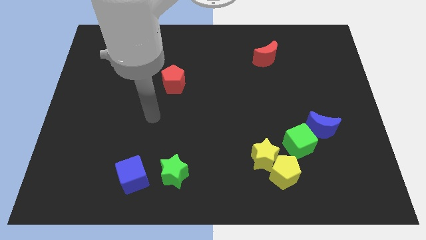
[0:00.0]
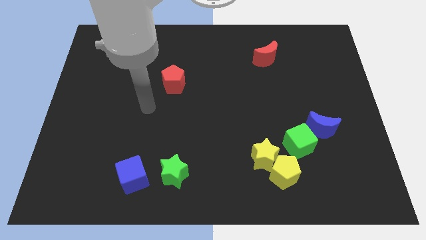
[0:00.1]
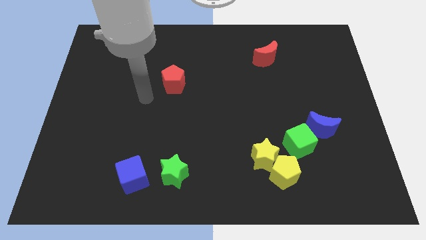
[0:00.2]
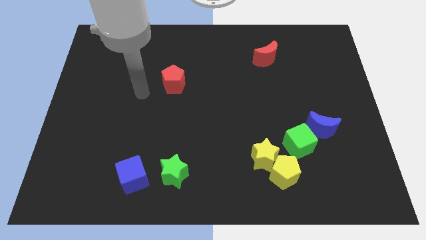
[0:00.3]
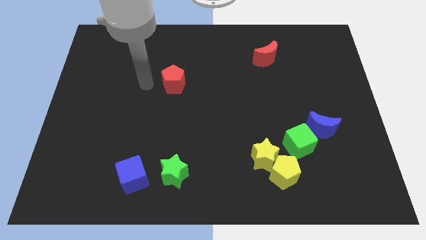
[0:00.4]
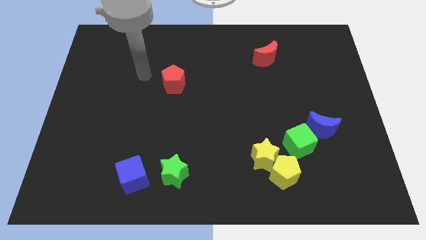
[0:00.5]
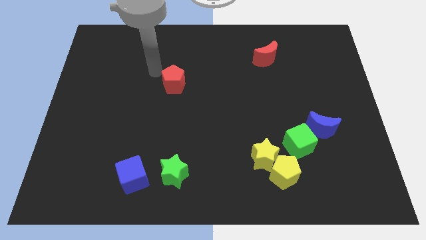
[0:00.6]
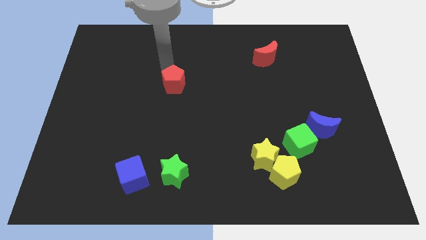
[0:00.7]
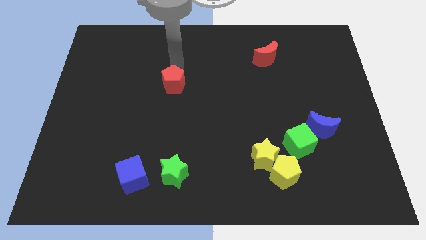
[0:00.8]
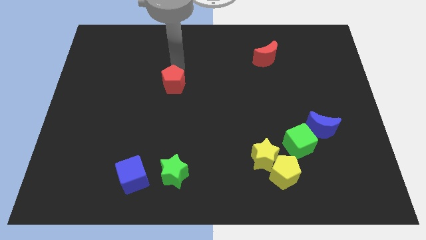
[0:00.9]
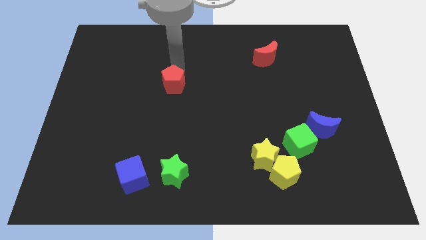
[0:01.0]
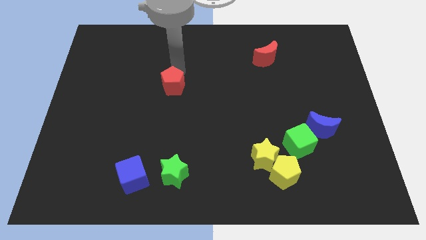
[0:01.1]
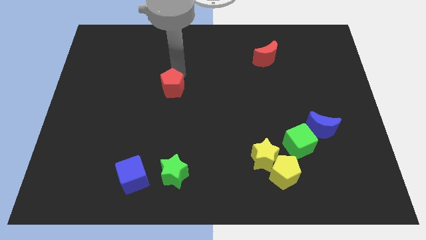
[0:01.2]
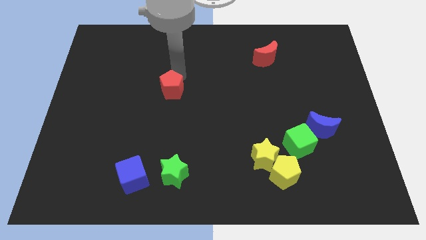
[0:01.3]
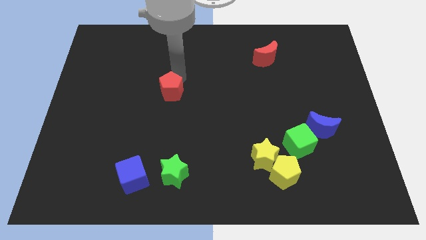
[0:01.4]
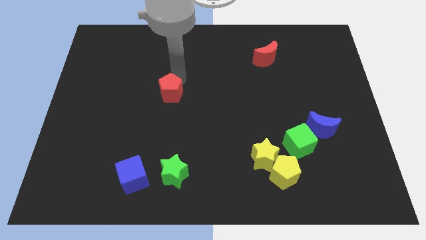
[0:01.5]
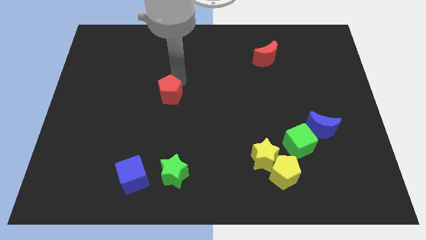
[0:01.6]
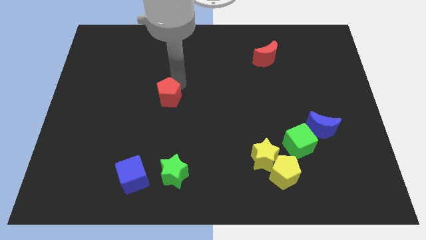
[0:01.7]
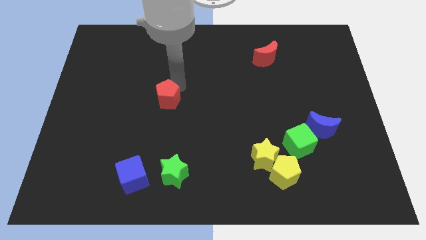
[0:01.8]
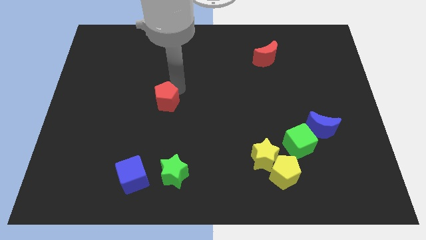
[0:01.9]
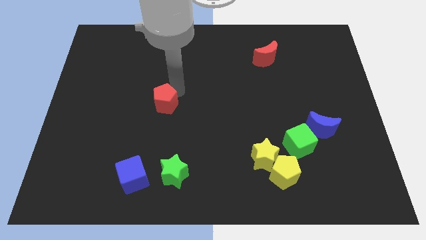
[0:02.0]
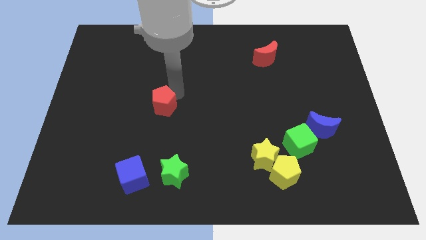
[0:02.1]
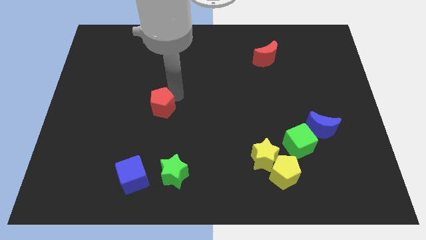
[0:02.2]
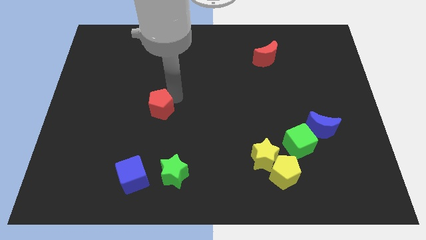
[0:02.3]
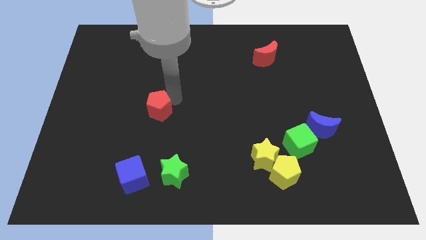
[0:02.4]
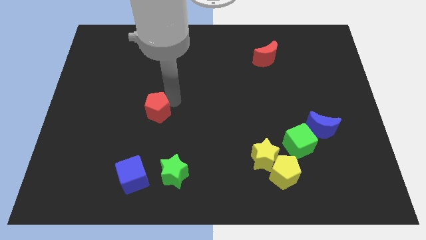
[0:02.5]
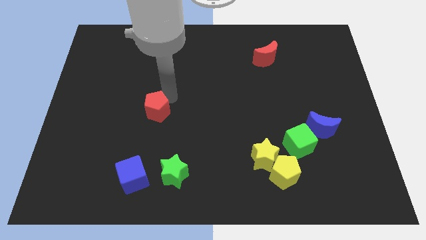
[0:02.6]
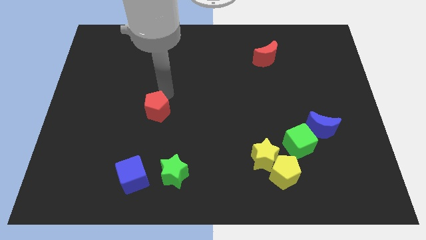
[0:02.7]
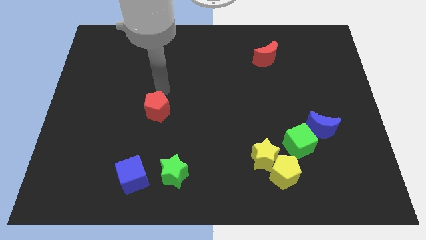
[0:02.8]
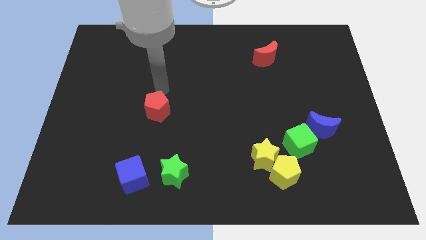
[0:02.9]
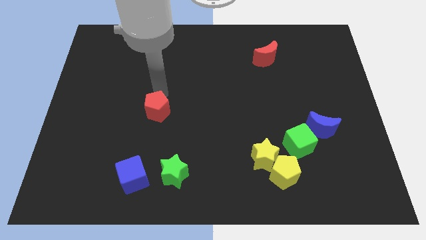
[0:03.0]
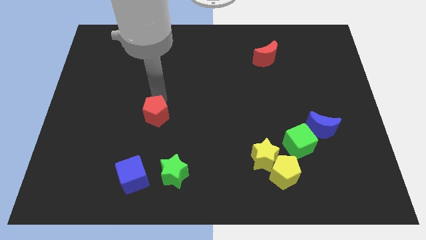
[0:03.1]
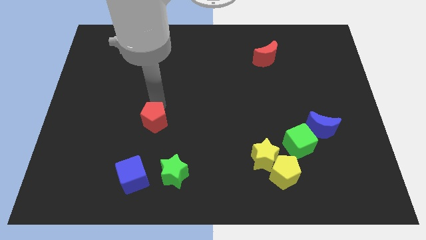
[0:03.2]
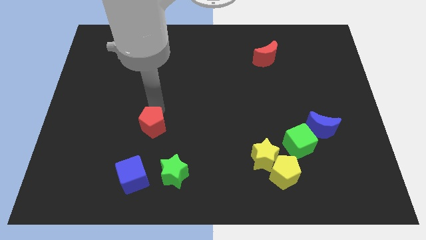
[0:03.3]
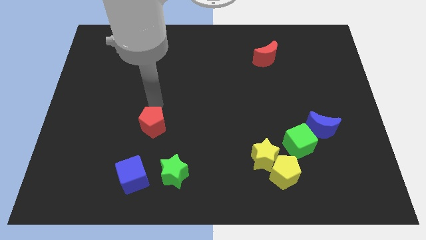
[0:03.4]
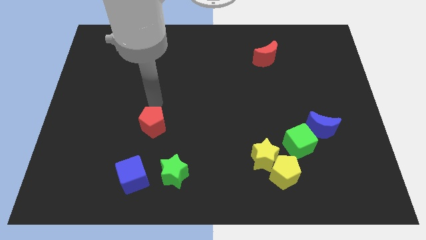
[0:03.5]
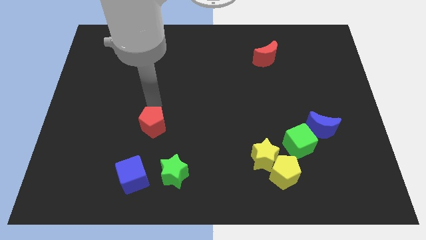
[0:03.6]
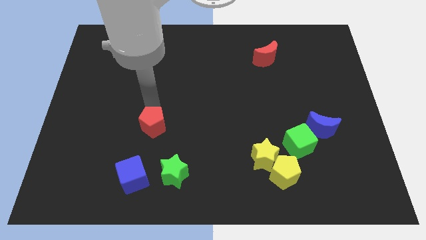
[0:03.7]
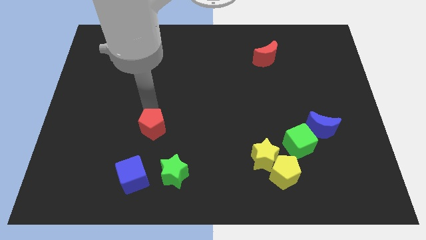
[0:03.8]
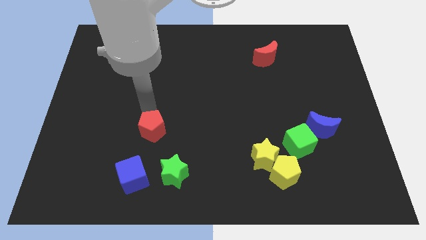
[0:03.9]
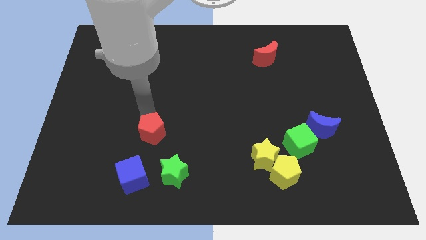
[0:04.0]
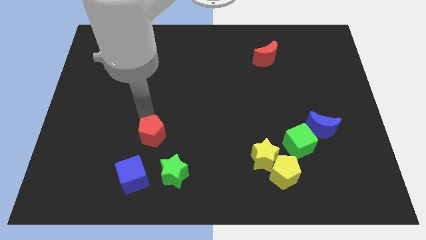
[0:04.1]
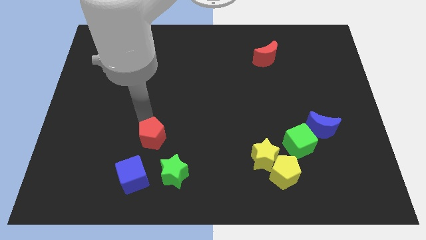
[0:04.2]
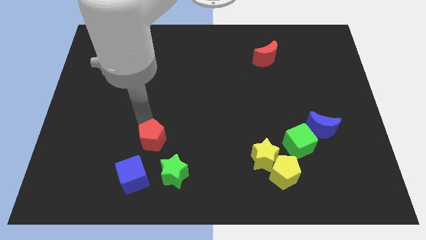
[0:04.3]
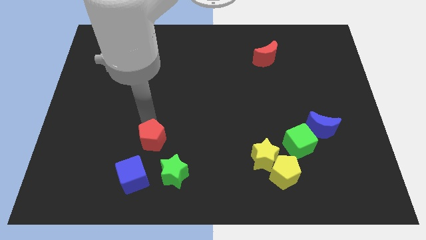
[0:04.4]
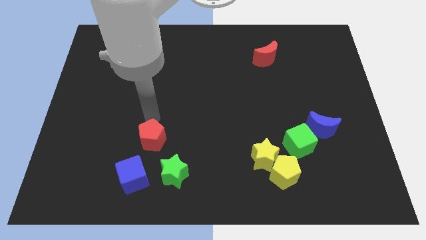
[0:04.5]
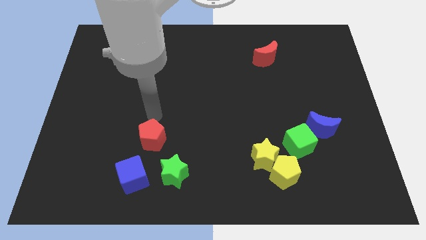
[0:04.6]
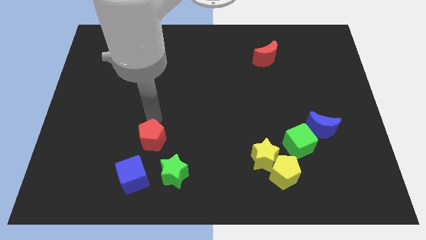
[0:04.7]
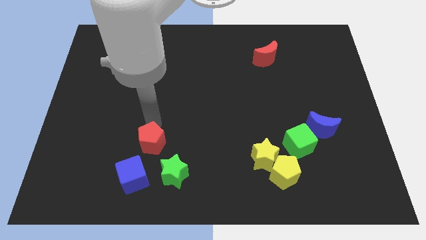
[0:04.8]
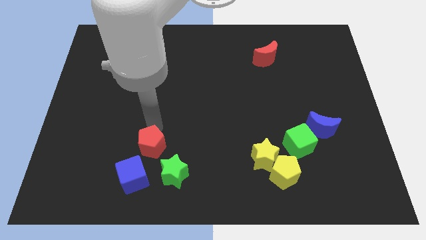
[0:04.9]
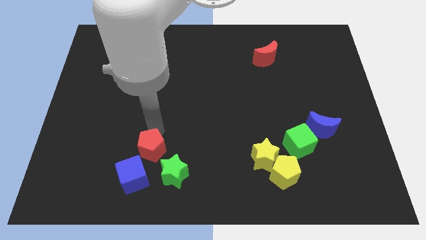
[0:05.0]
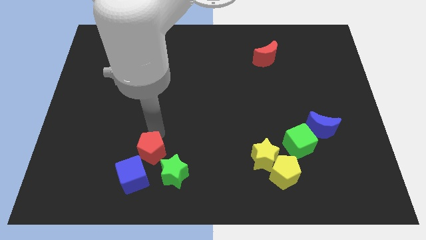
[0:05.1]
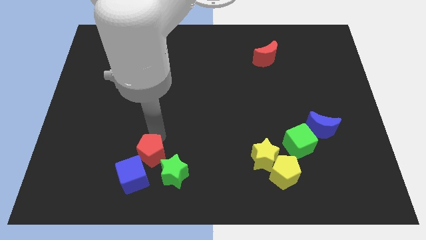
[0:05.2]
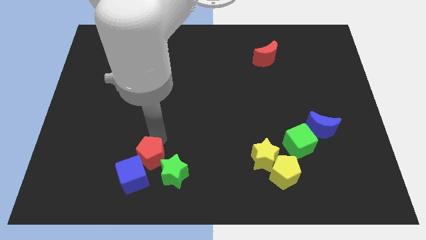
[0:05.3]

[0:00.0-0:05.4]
put the red pentagon next to the blue cube

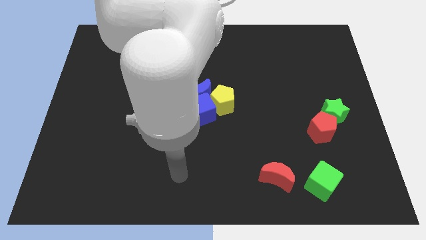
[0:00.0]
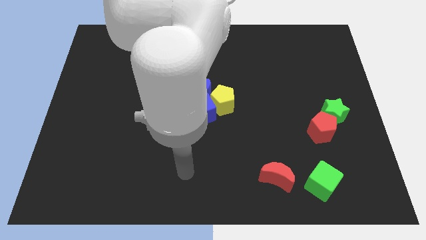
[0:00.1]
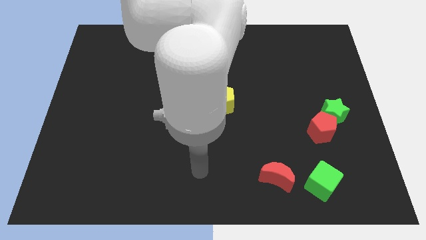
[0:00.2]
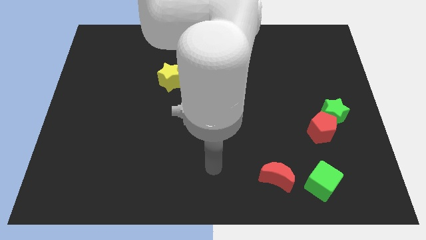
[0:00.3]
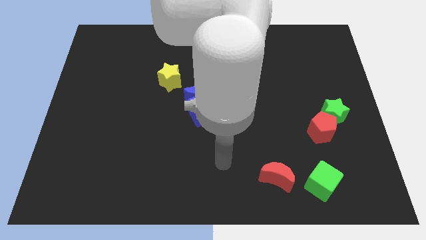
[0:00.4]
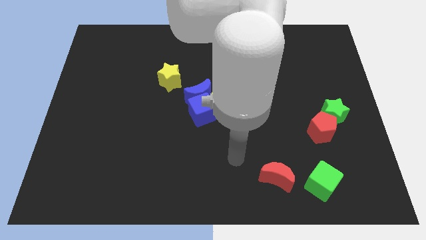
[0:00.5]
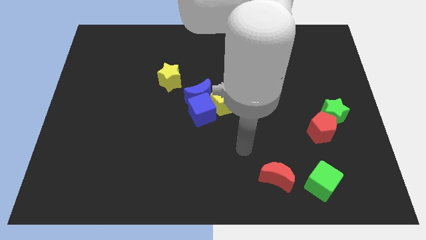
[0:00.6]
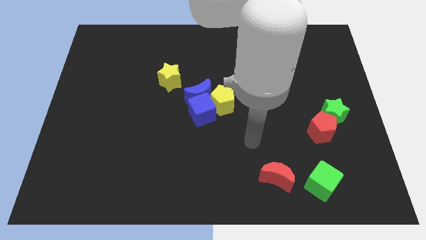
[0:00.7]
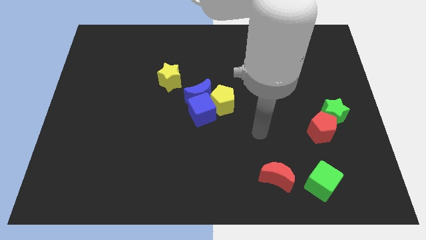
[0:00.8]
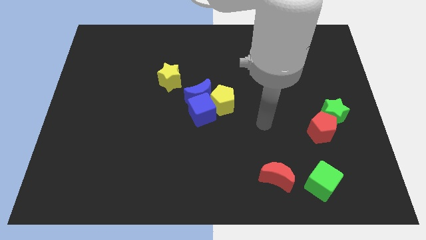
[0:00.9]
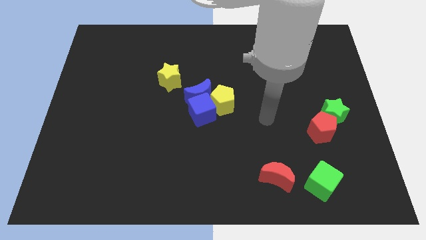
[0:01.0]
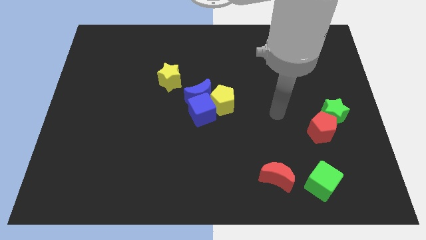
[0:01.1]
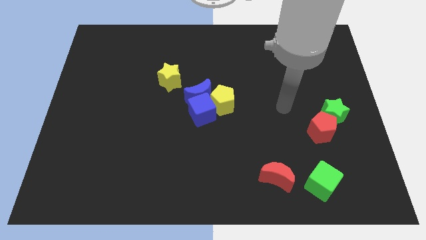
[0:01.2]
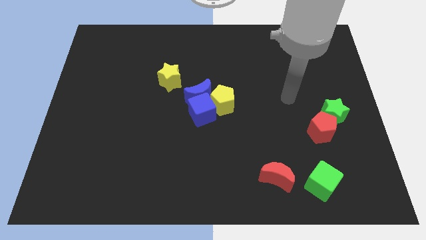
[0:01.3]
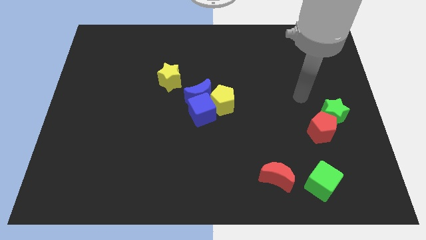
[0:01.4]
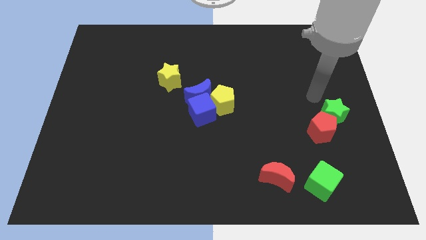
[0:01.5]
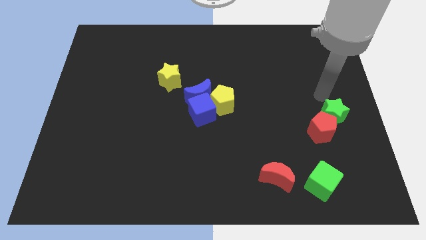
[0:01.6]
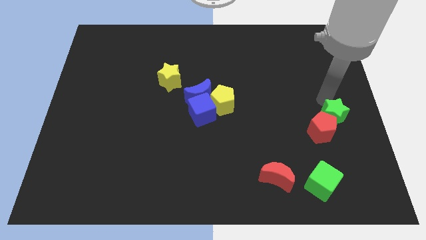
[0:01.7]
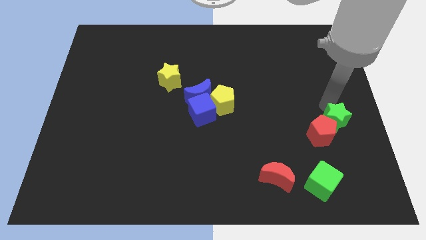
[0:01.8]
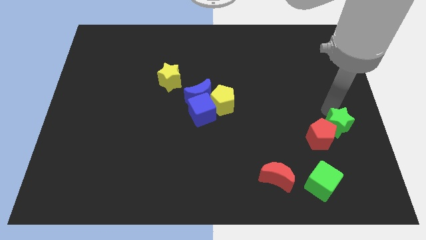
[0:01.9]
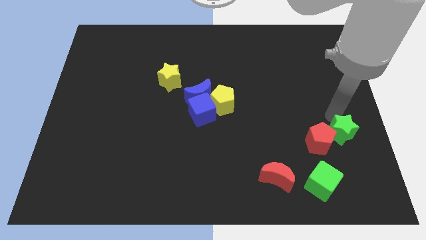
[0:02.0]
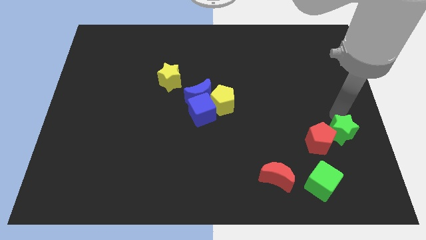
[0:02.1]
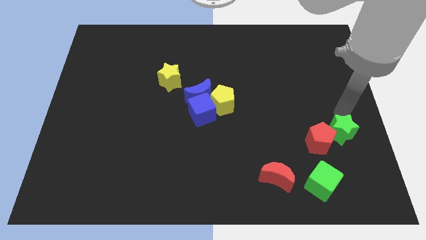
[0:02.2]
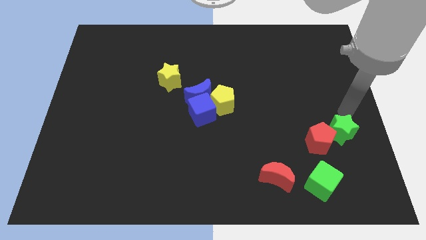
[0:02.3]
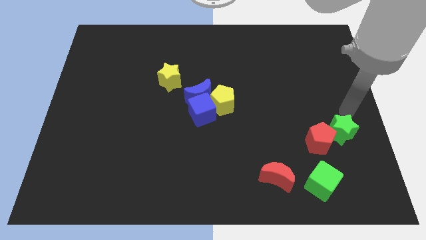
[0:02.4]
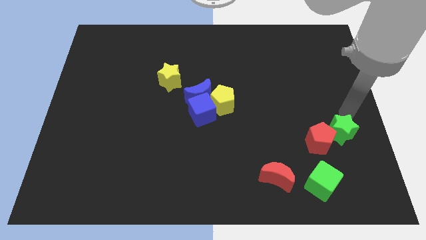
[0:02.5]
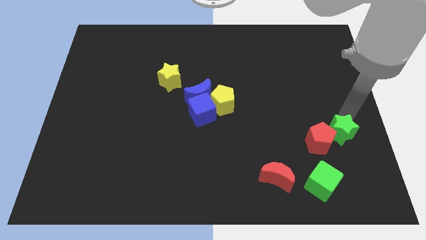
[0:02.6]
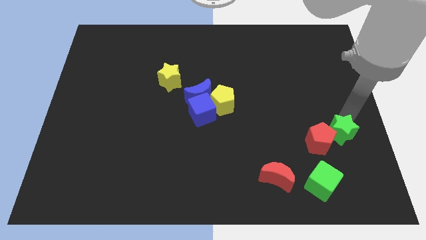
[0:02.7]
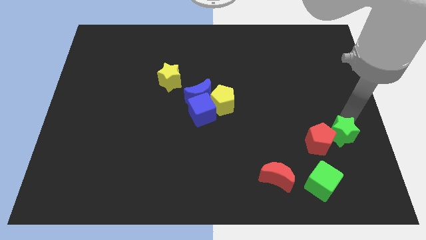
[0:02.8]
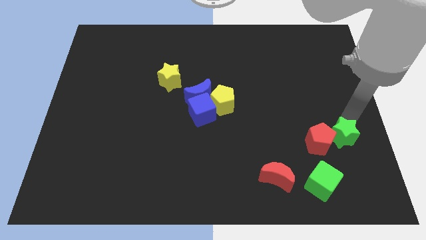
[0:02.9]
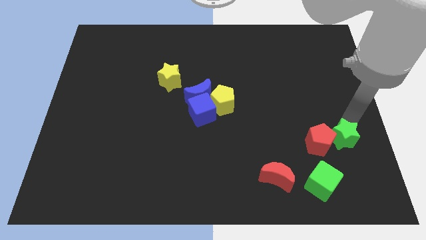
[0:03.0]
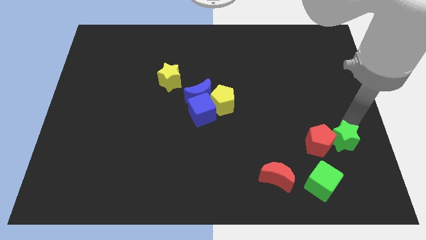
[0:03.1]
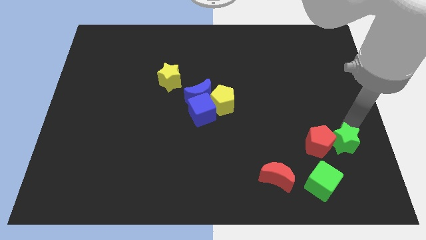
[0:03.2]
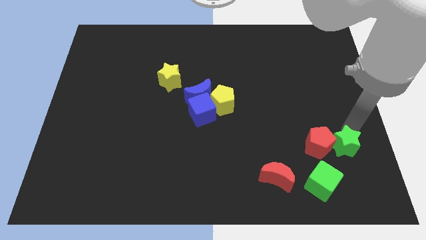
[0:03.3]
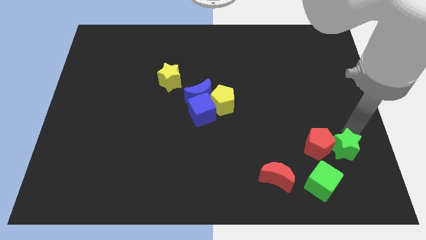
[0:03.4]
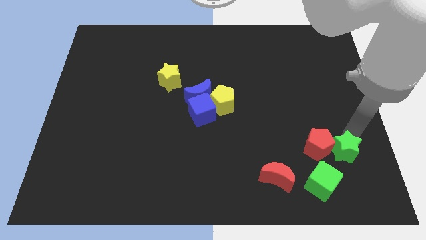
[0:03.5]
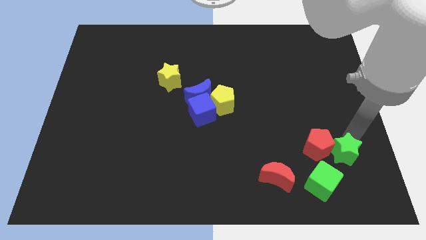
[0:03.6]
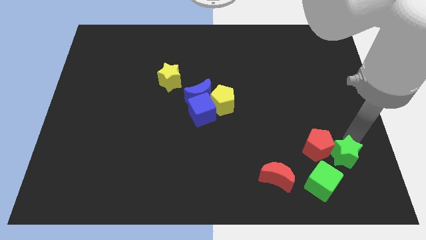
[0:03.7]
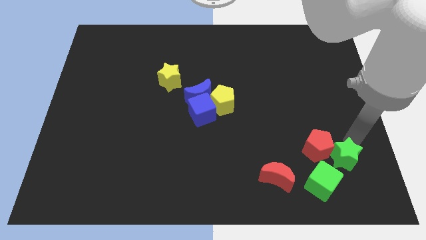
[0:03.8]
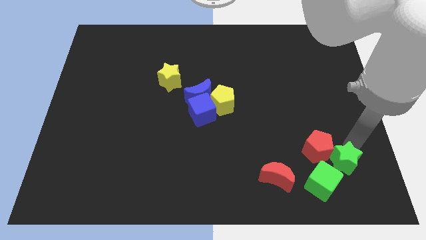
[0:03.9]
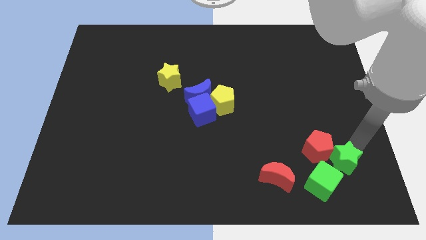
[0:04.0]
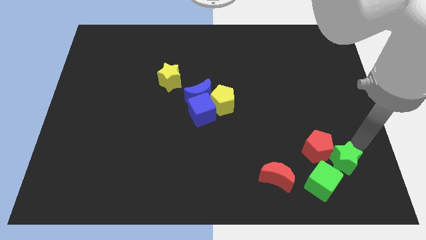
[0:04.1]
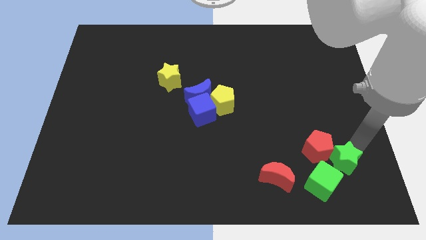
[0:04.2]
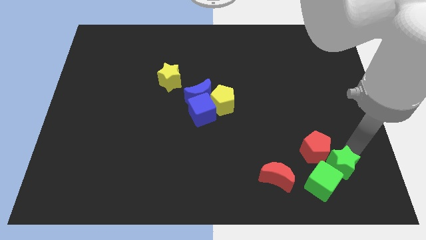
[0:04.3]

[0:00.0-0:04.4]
slide the green star to the green cube
